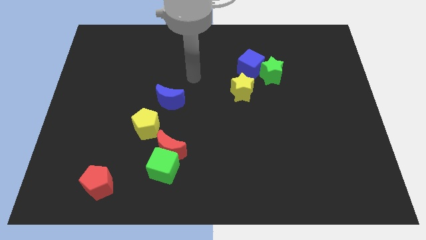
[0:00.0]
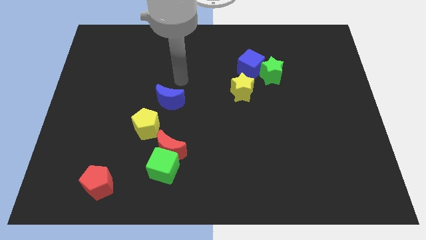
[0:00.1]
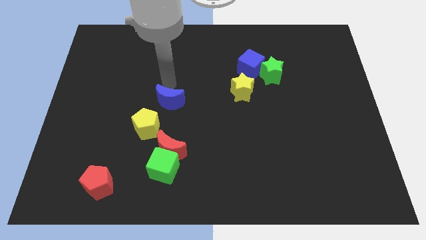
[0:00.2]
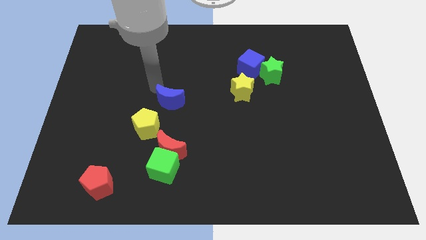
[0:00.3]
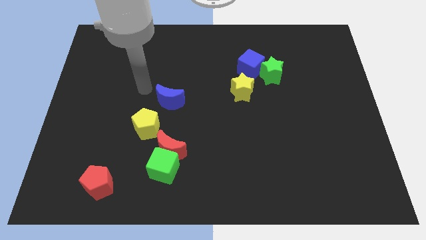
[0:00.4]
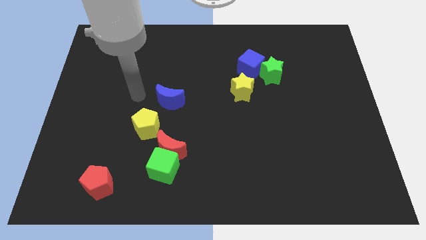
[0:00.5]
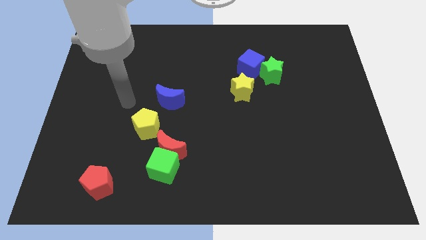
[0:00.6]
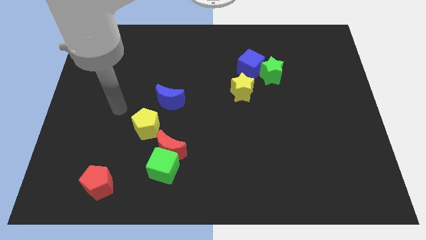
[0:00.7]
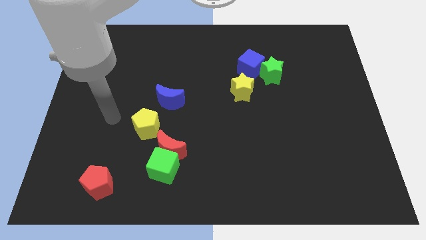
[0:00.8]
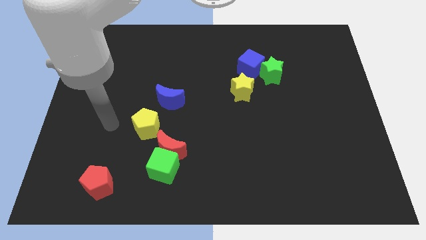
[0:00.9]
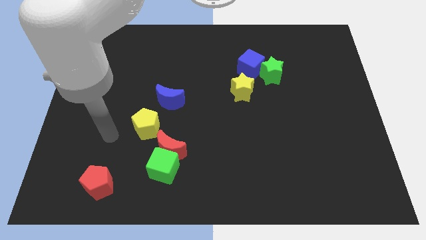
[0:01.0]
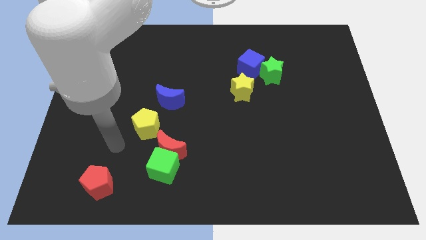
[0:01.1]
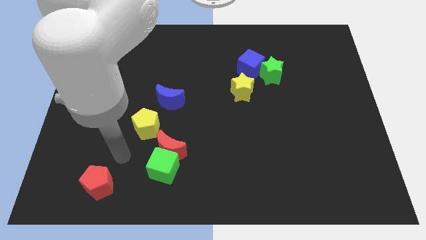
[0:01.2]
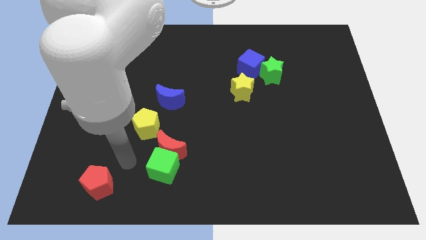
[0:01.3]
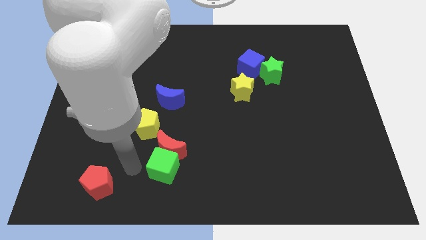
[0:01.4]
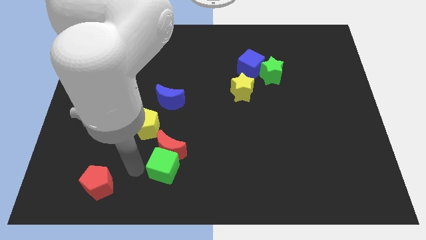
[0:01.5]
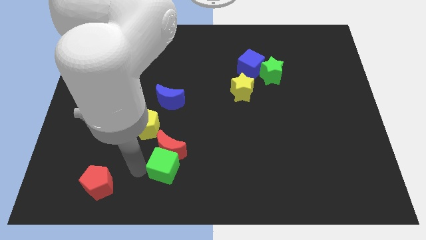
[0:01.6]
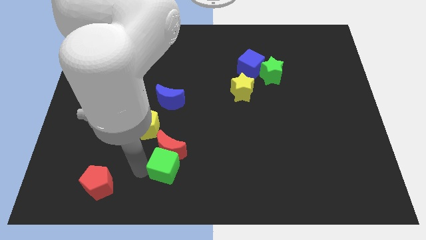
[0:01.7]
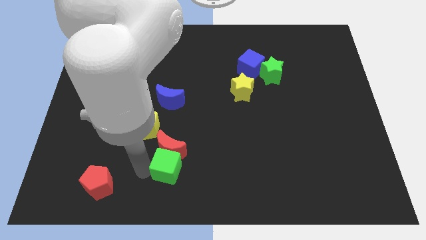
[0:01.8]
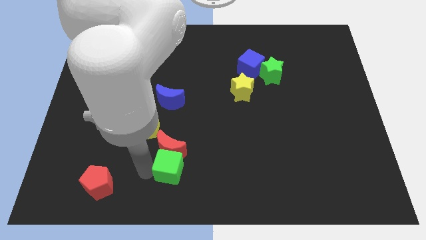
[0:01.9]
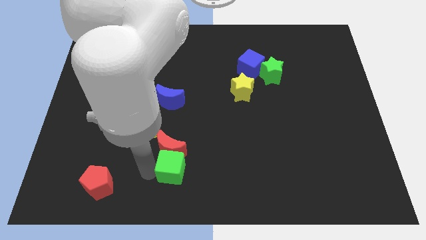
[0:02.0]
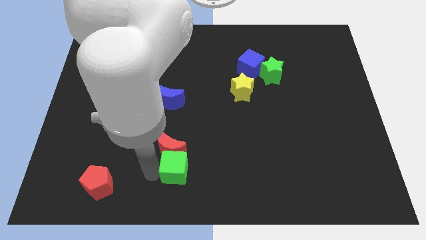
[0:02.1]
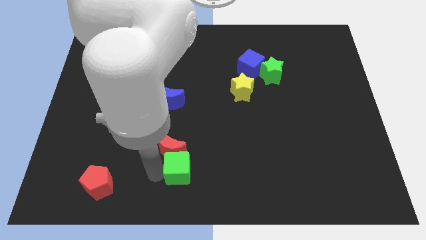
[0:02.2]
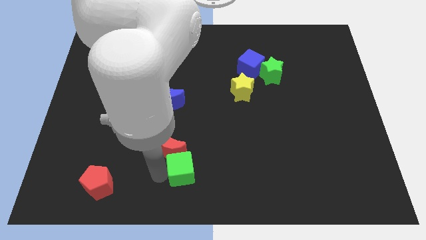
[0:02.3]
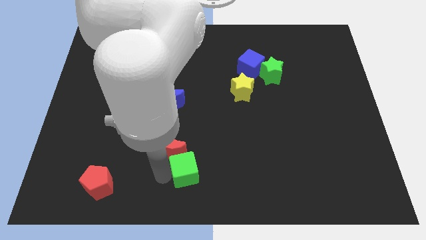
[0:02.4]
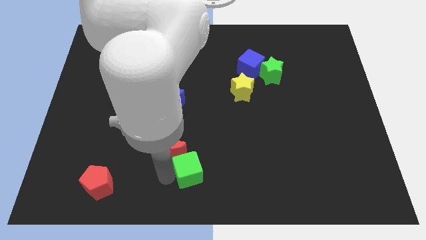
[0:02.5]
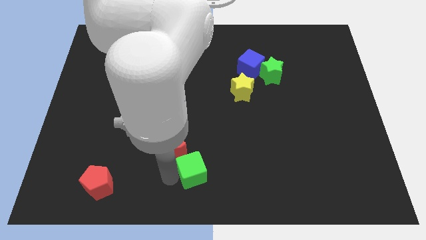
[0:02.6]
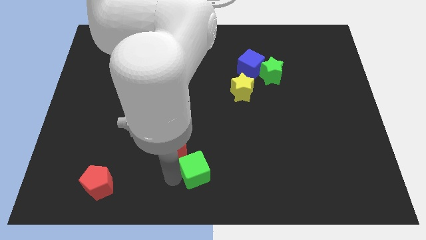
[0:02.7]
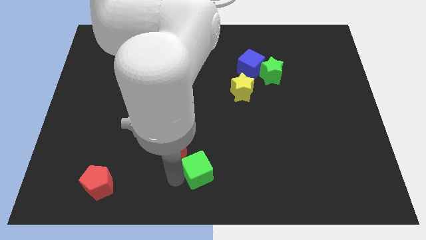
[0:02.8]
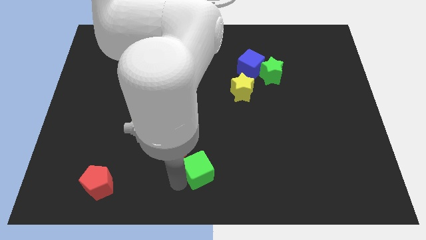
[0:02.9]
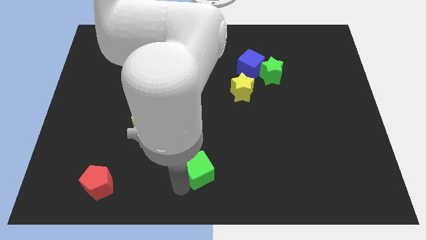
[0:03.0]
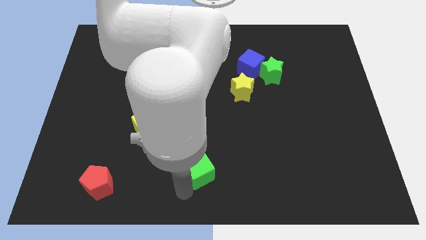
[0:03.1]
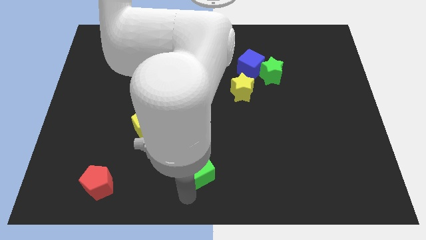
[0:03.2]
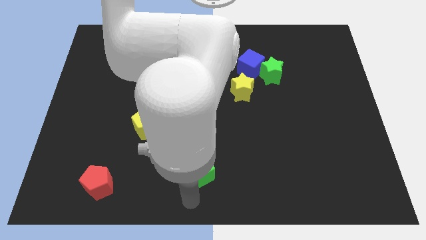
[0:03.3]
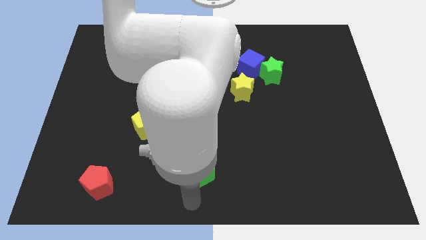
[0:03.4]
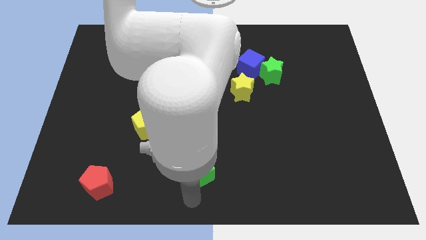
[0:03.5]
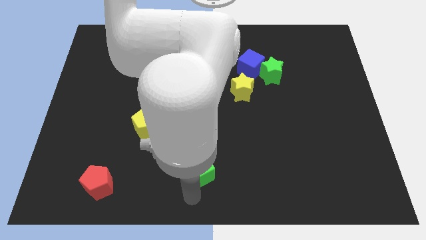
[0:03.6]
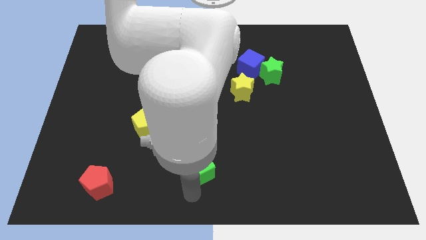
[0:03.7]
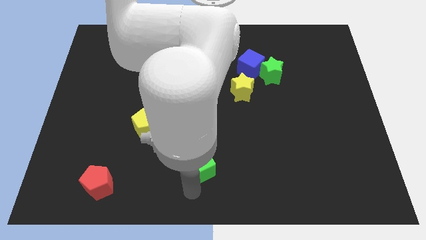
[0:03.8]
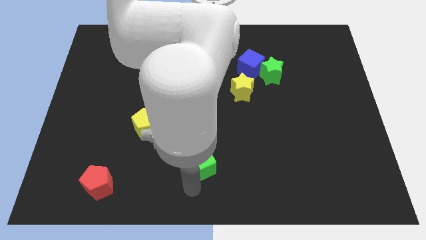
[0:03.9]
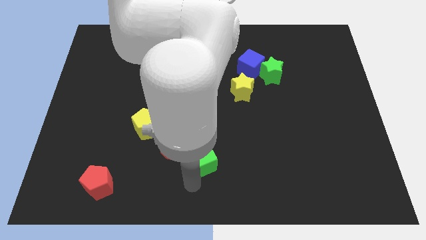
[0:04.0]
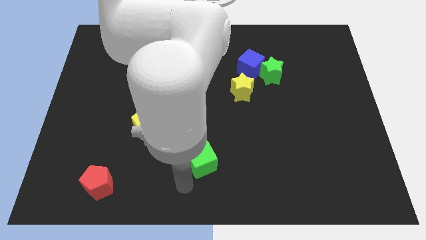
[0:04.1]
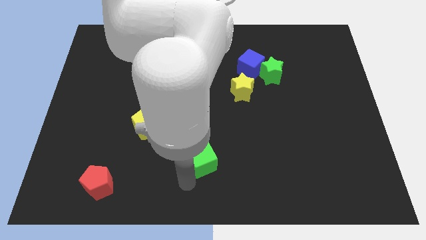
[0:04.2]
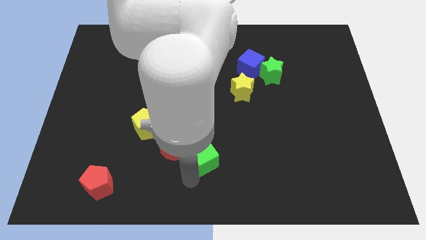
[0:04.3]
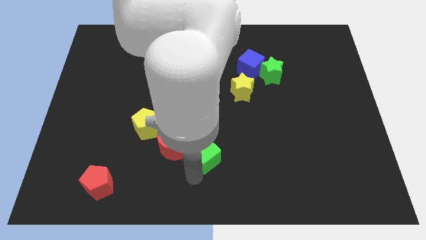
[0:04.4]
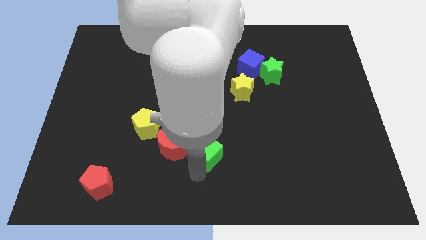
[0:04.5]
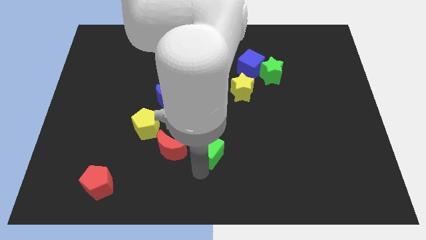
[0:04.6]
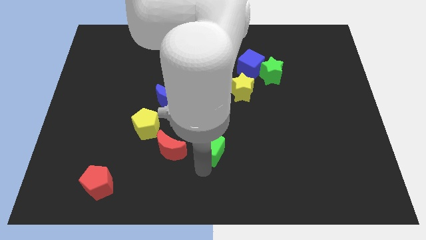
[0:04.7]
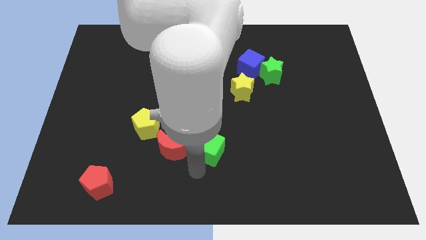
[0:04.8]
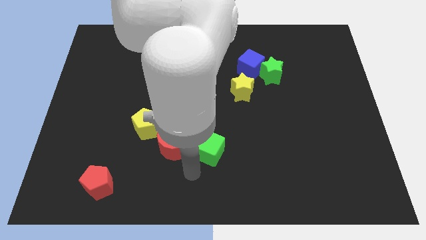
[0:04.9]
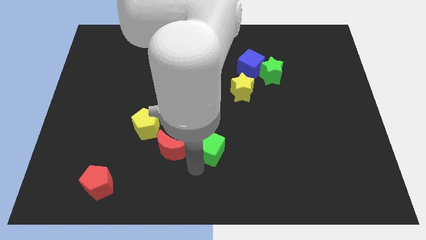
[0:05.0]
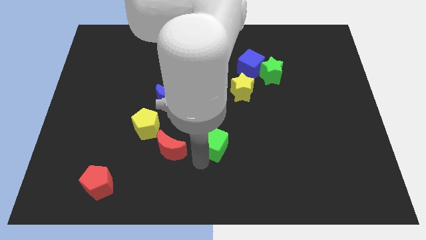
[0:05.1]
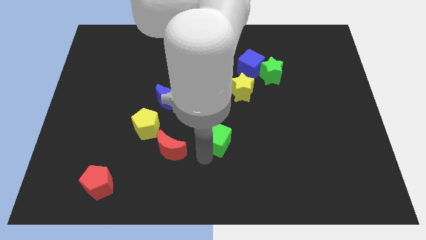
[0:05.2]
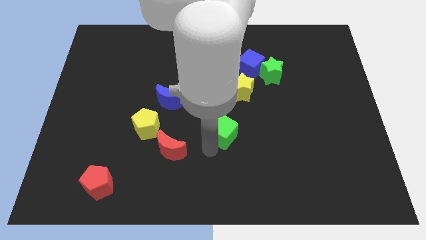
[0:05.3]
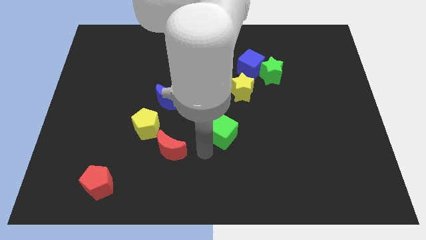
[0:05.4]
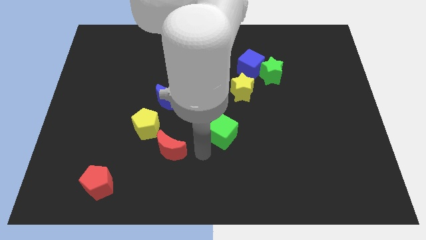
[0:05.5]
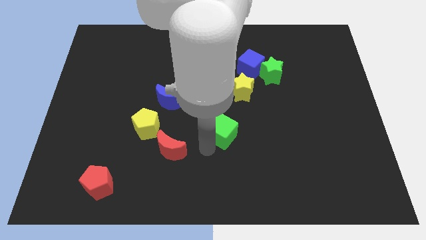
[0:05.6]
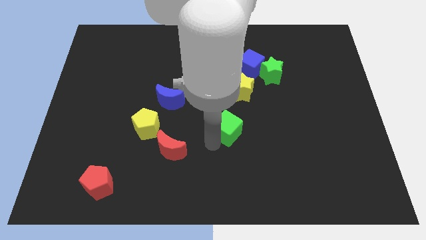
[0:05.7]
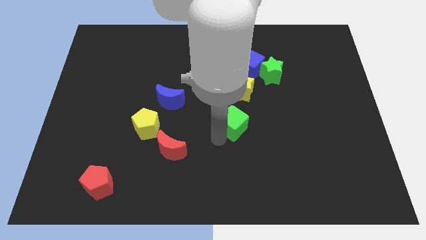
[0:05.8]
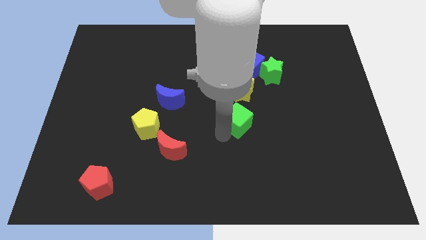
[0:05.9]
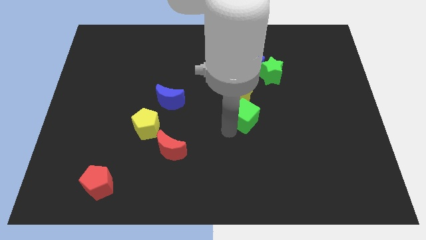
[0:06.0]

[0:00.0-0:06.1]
push the green cube diagonally upwards and to the right

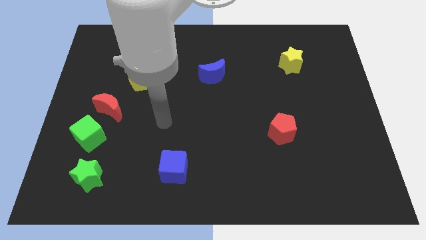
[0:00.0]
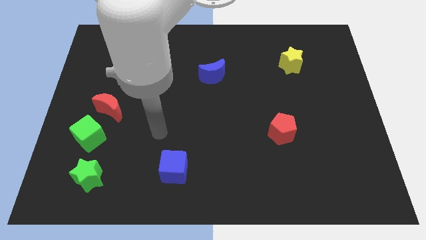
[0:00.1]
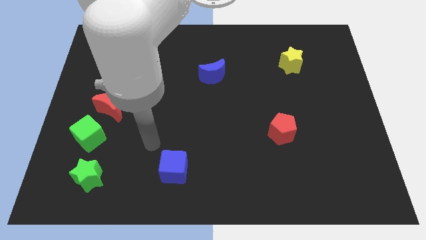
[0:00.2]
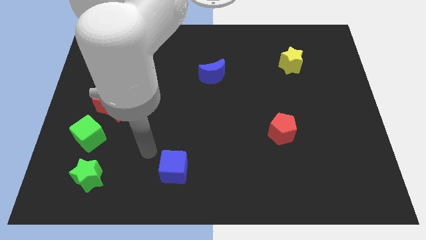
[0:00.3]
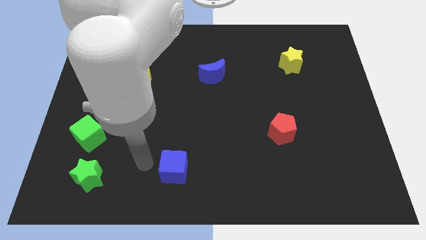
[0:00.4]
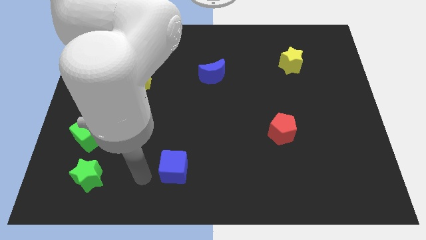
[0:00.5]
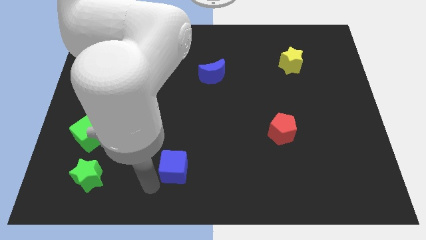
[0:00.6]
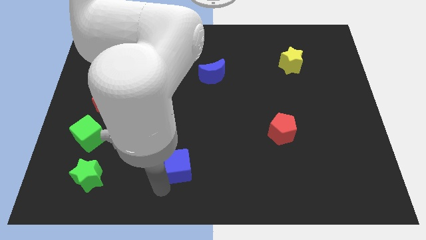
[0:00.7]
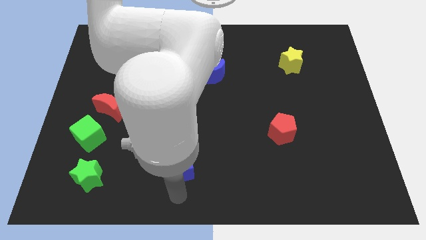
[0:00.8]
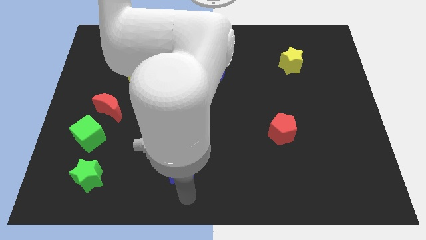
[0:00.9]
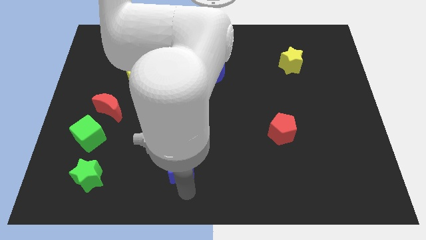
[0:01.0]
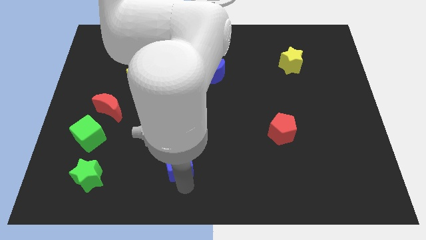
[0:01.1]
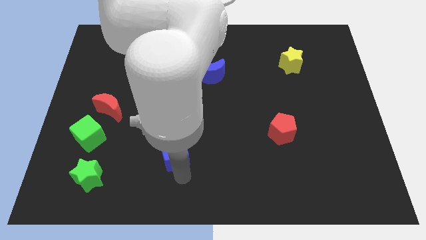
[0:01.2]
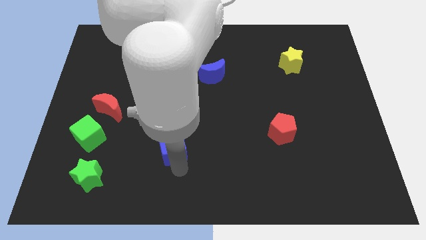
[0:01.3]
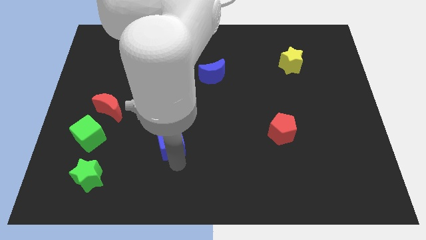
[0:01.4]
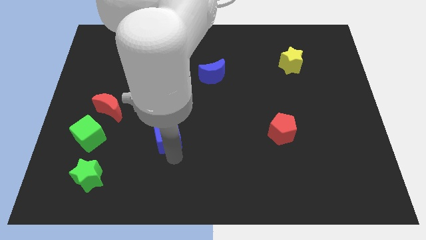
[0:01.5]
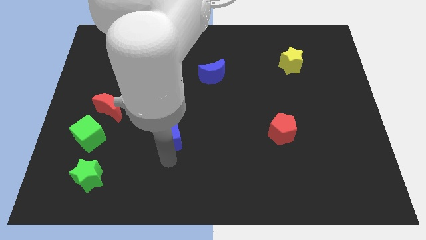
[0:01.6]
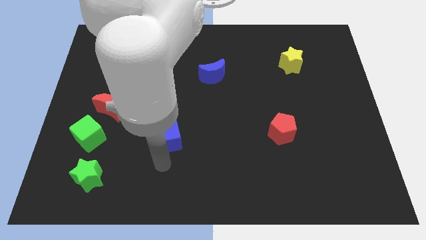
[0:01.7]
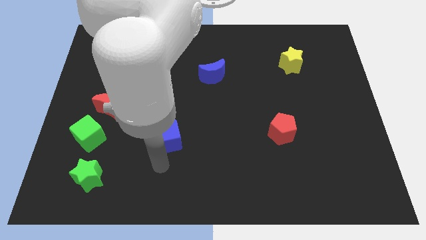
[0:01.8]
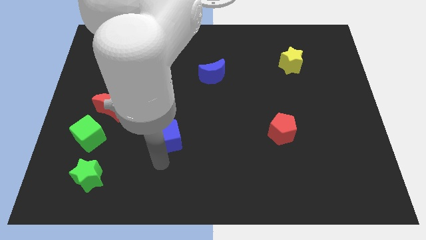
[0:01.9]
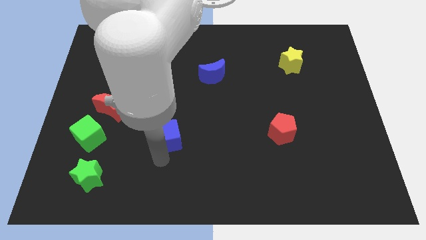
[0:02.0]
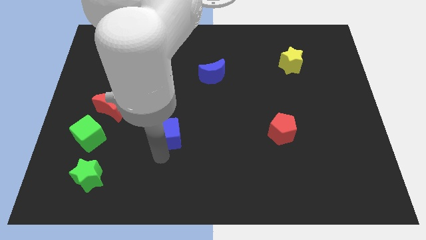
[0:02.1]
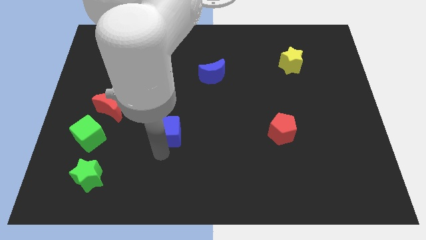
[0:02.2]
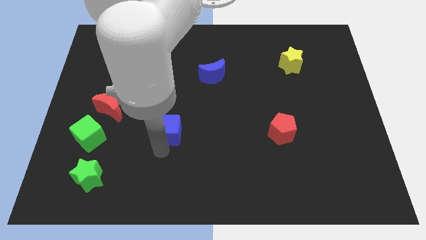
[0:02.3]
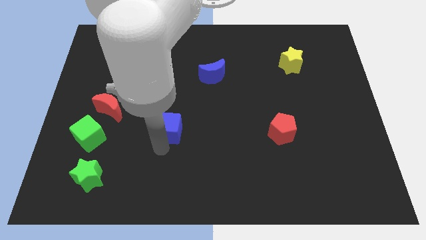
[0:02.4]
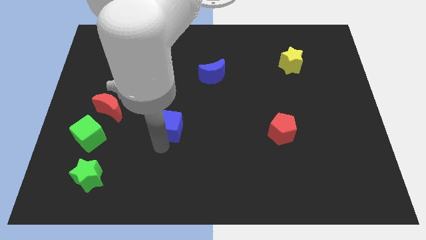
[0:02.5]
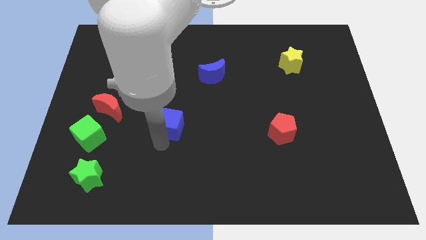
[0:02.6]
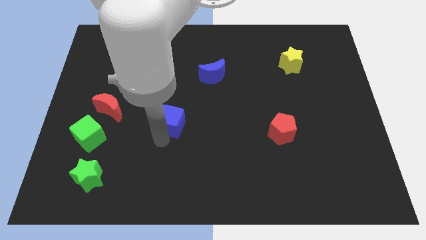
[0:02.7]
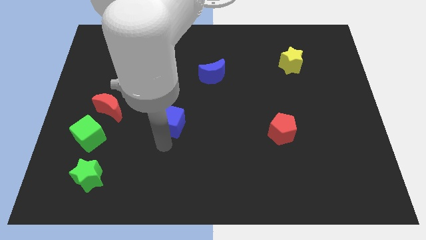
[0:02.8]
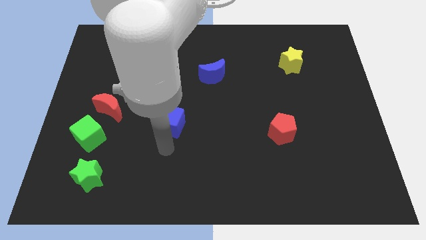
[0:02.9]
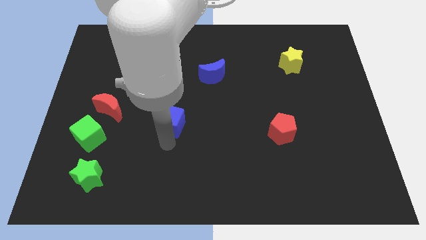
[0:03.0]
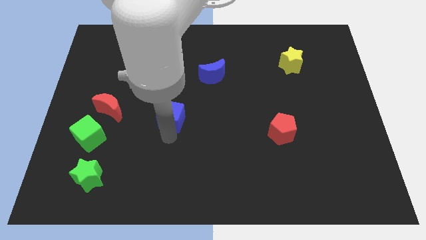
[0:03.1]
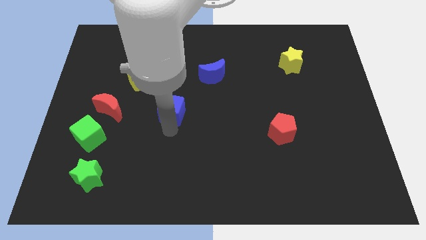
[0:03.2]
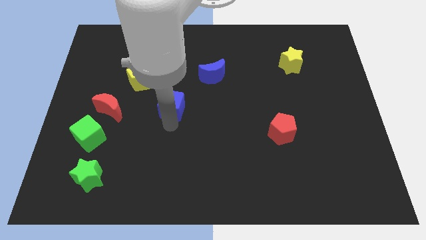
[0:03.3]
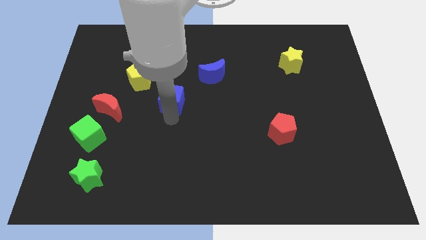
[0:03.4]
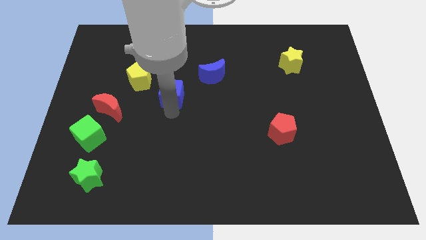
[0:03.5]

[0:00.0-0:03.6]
slide the blue cube up
